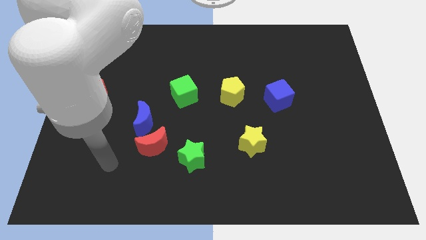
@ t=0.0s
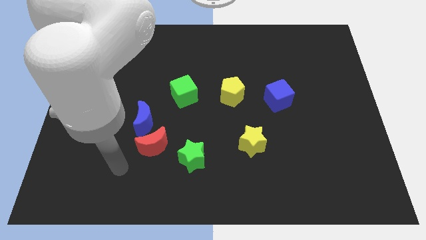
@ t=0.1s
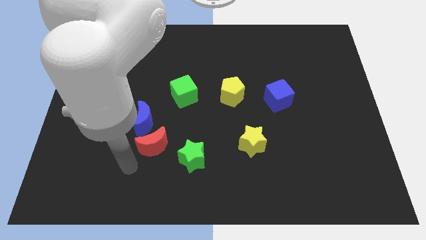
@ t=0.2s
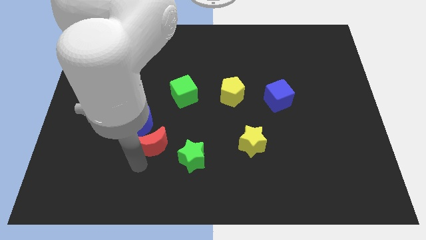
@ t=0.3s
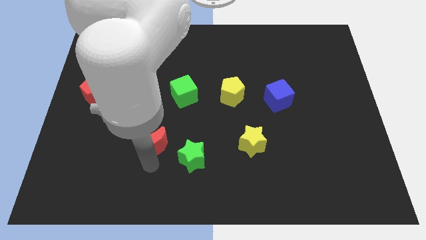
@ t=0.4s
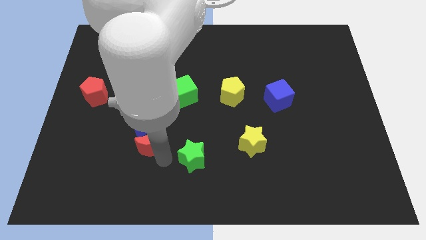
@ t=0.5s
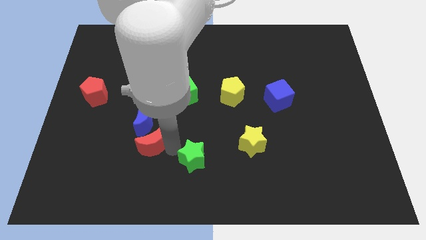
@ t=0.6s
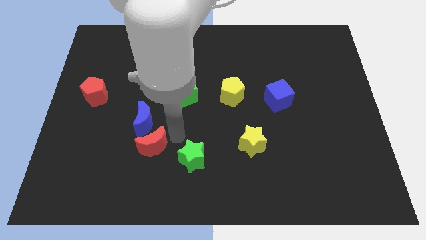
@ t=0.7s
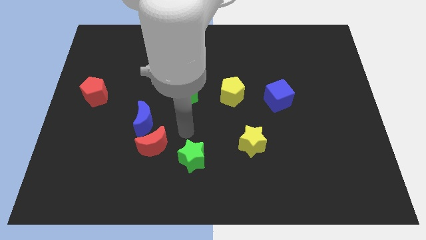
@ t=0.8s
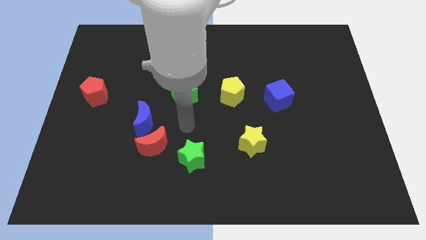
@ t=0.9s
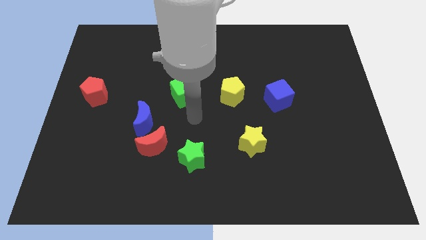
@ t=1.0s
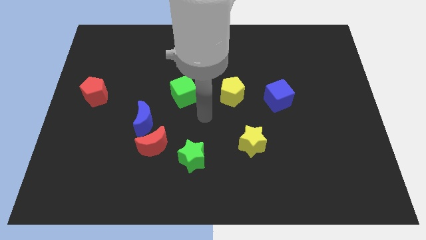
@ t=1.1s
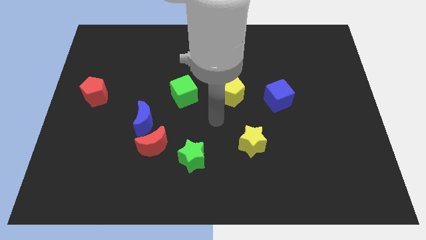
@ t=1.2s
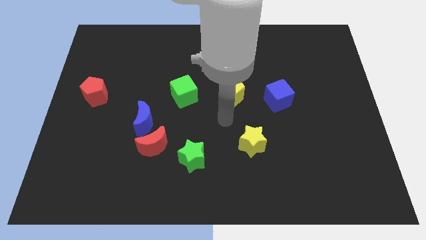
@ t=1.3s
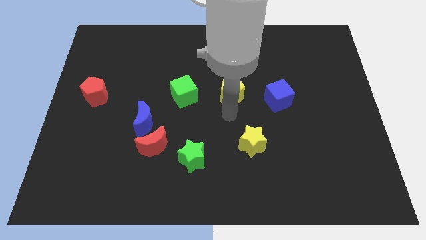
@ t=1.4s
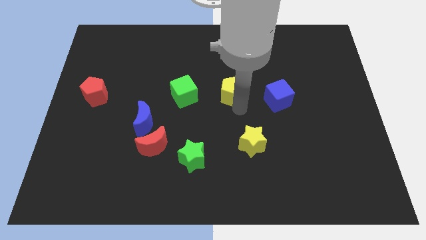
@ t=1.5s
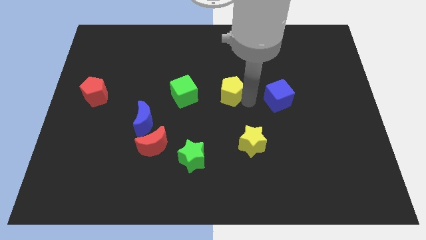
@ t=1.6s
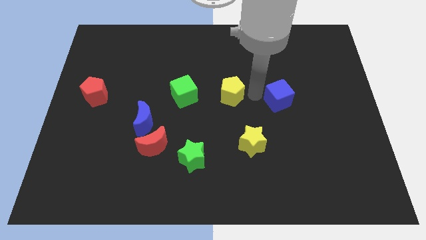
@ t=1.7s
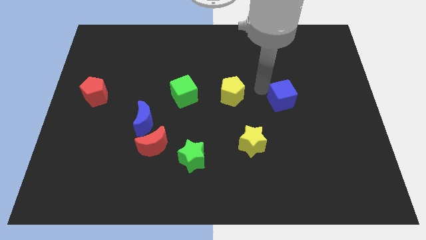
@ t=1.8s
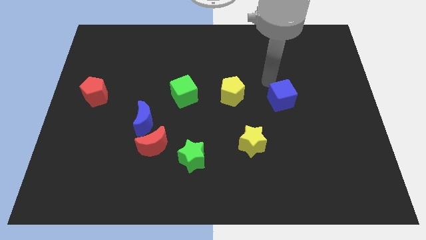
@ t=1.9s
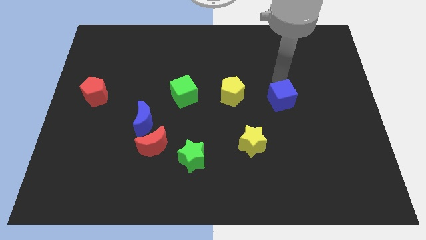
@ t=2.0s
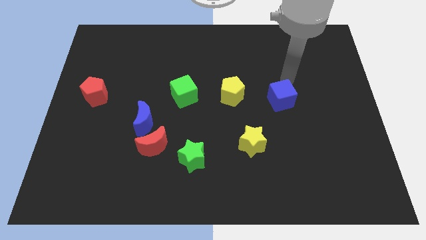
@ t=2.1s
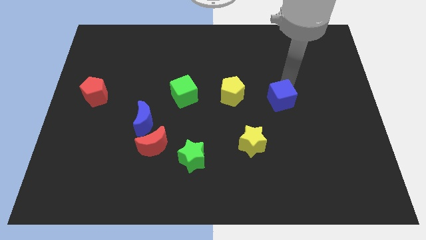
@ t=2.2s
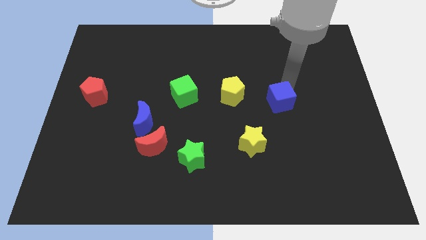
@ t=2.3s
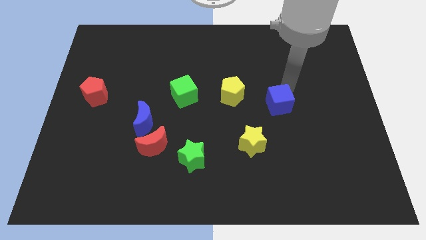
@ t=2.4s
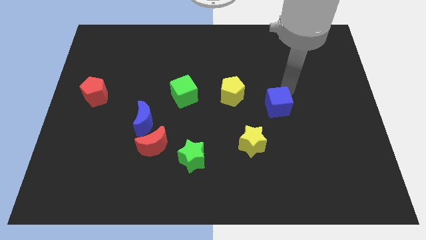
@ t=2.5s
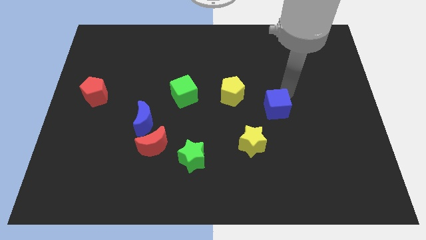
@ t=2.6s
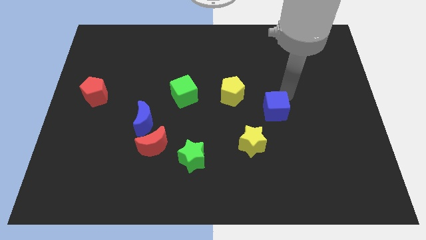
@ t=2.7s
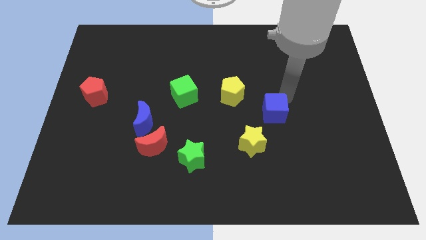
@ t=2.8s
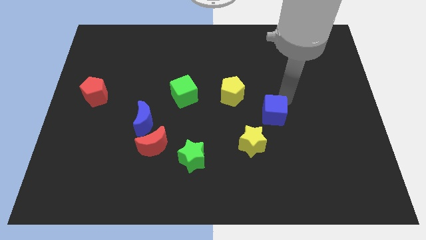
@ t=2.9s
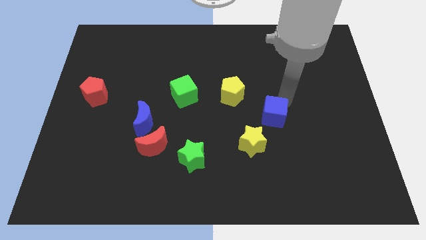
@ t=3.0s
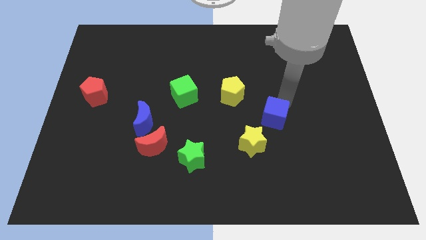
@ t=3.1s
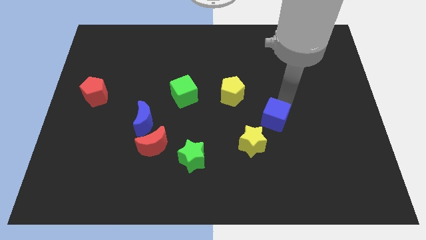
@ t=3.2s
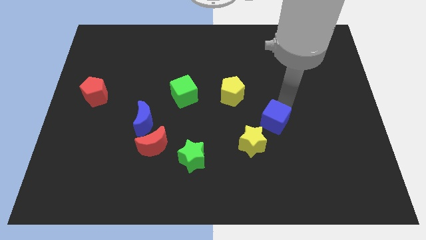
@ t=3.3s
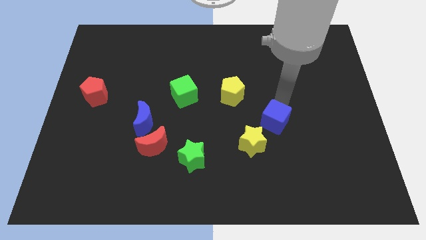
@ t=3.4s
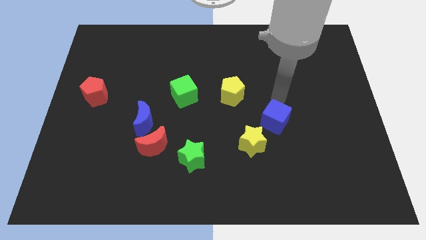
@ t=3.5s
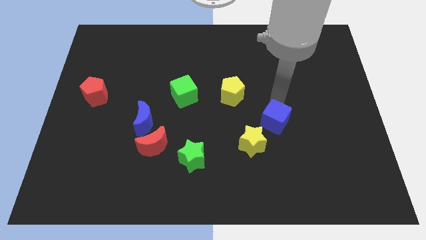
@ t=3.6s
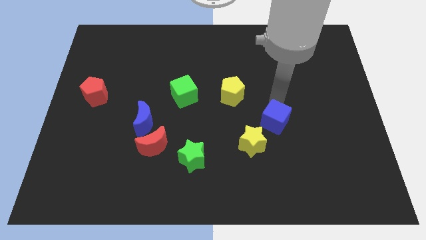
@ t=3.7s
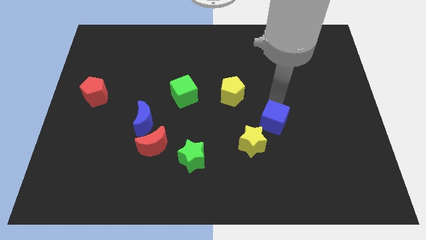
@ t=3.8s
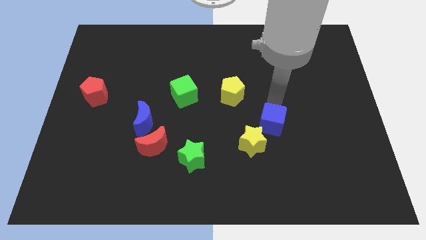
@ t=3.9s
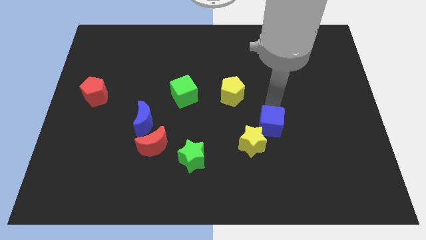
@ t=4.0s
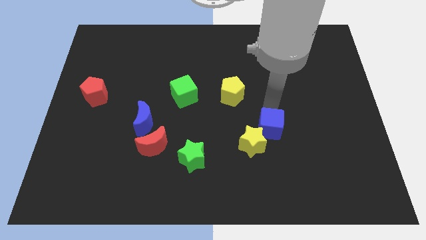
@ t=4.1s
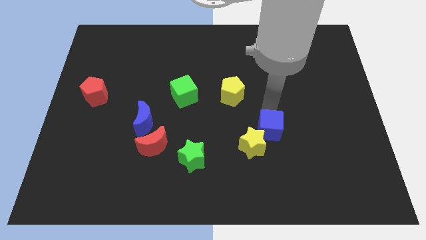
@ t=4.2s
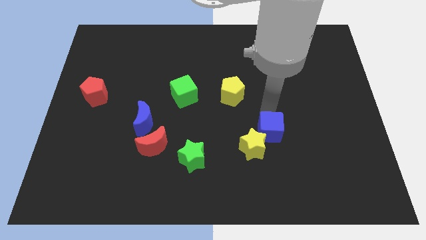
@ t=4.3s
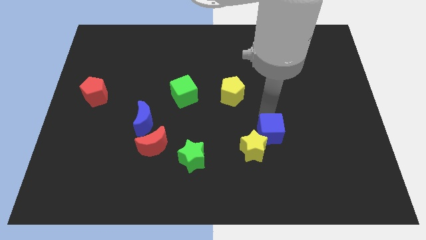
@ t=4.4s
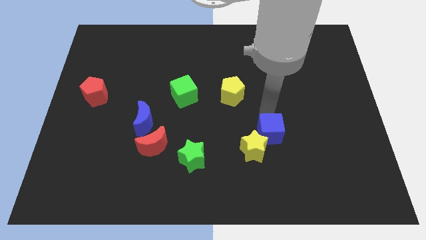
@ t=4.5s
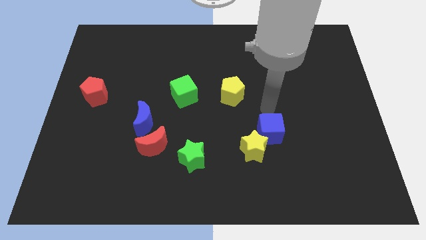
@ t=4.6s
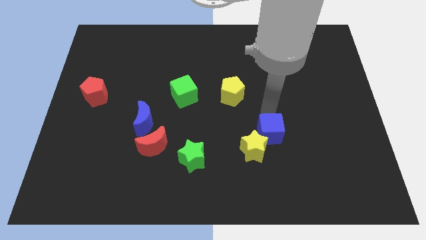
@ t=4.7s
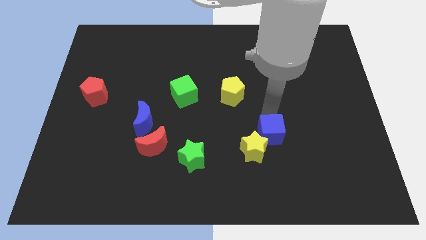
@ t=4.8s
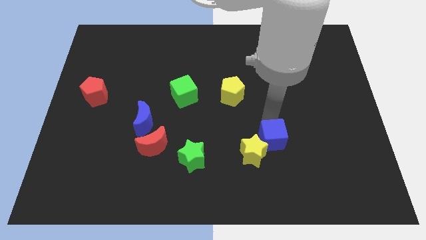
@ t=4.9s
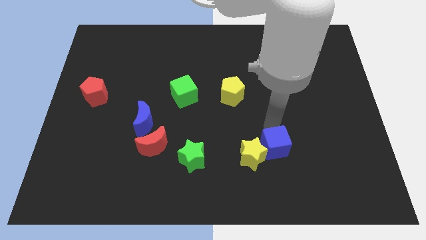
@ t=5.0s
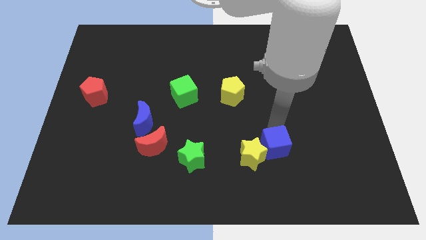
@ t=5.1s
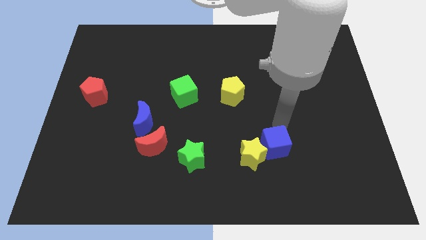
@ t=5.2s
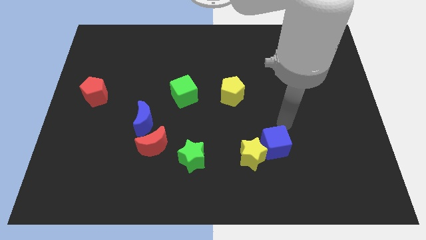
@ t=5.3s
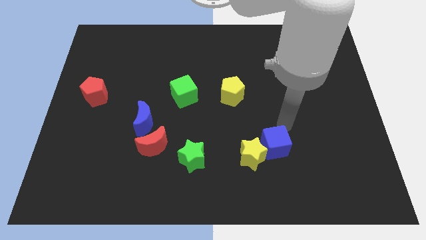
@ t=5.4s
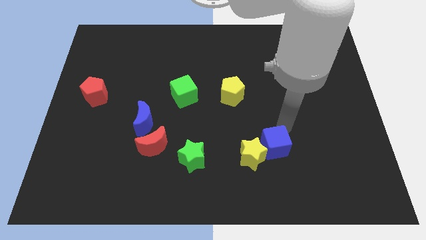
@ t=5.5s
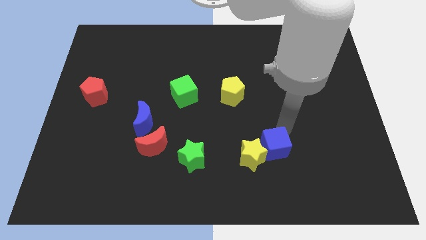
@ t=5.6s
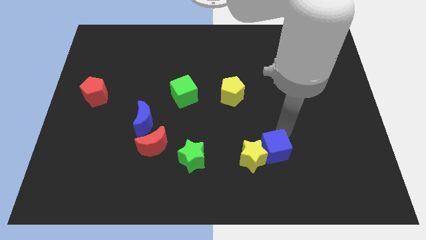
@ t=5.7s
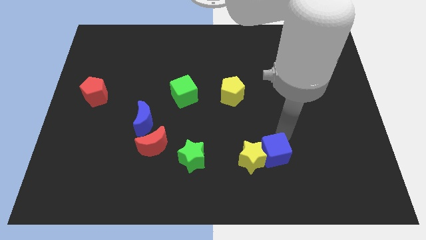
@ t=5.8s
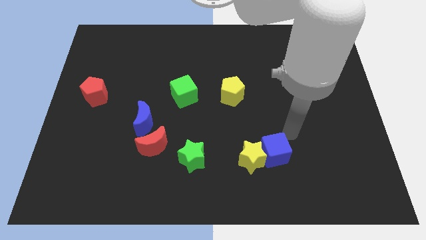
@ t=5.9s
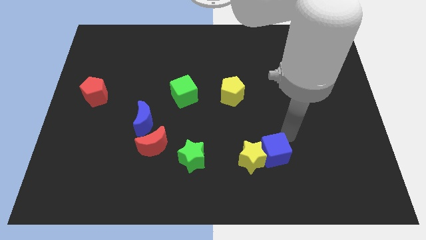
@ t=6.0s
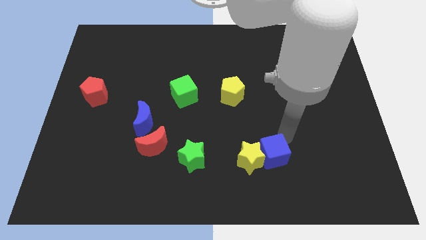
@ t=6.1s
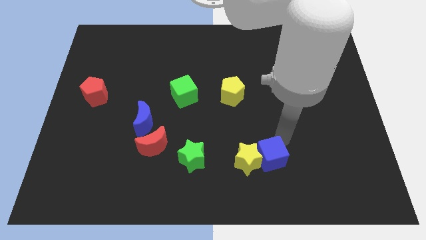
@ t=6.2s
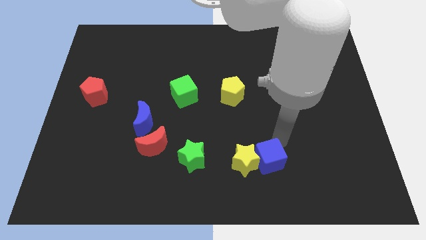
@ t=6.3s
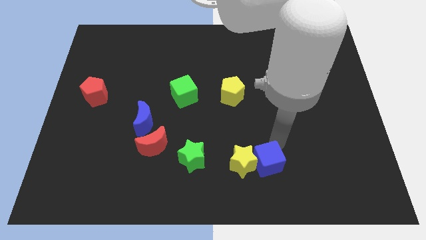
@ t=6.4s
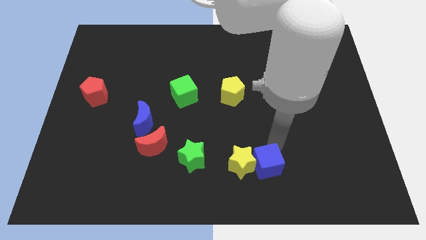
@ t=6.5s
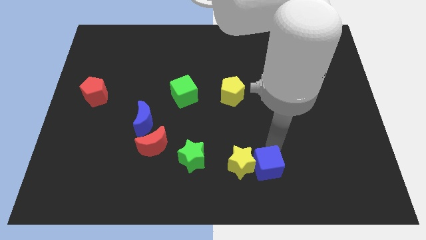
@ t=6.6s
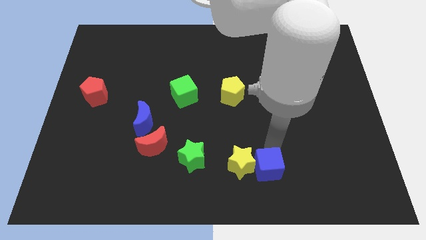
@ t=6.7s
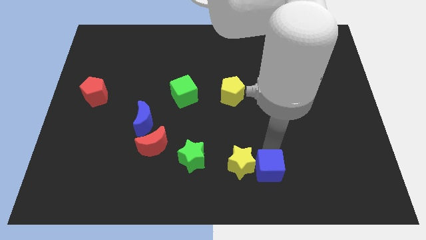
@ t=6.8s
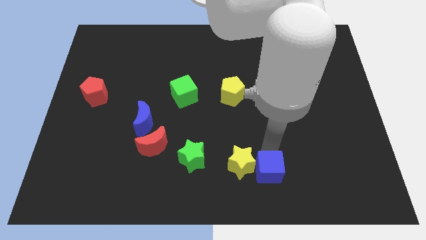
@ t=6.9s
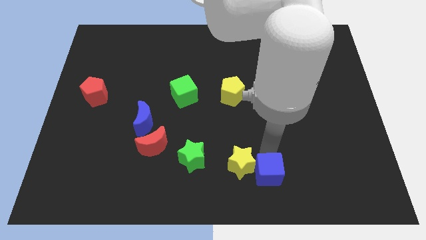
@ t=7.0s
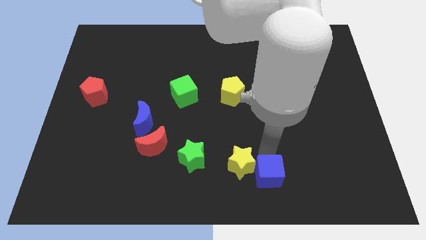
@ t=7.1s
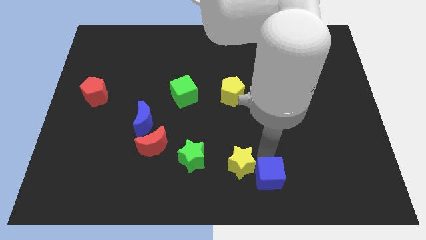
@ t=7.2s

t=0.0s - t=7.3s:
slide the blue cube to the bottom side
